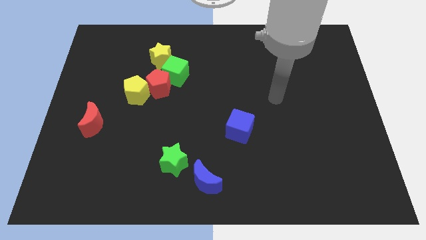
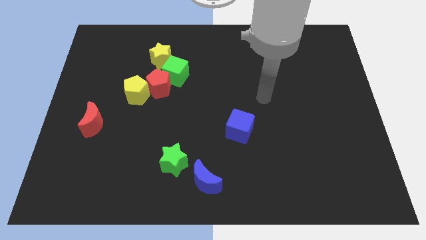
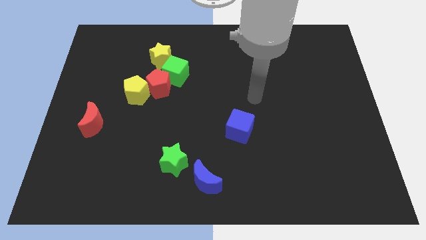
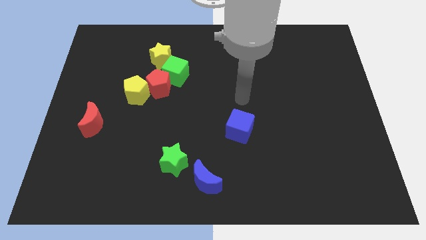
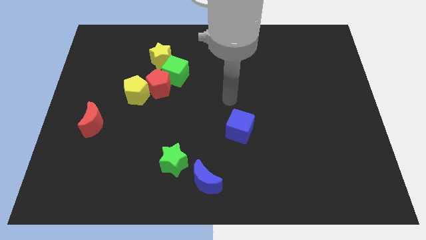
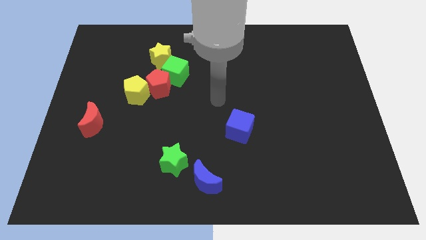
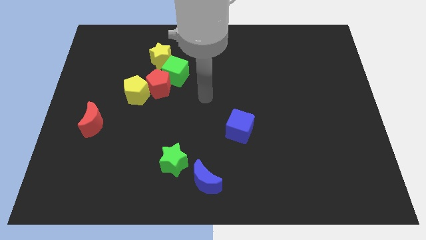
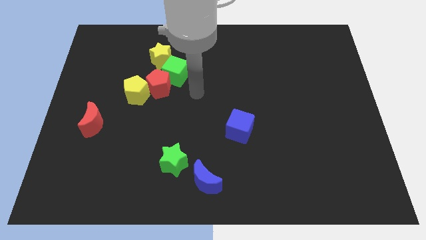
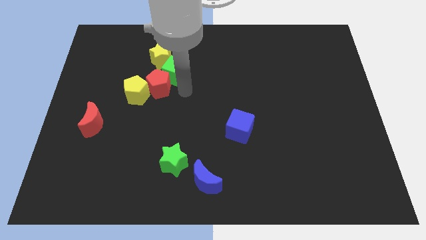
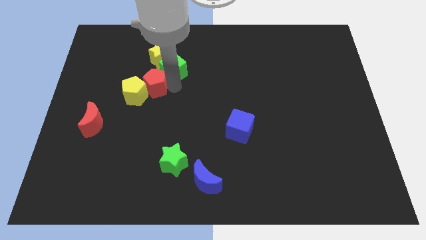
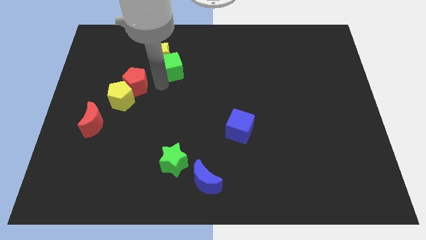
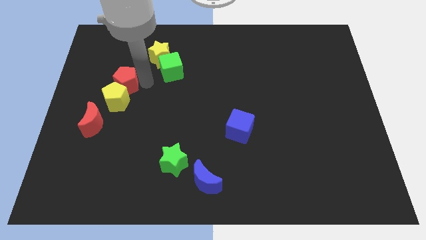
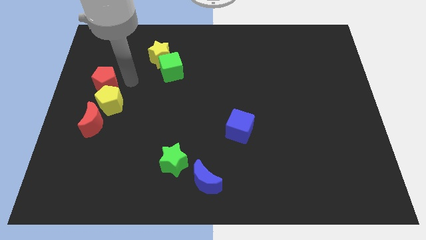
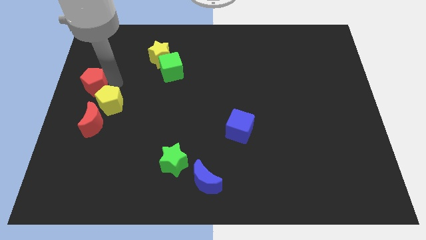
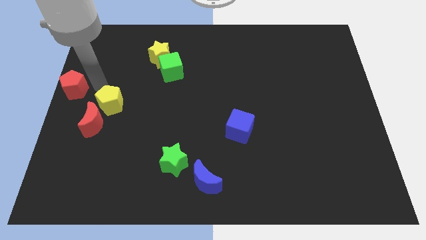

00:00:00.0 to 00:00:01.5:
pull the yellow pentagon apart from the red pentagon

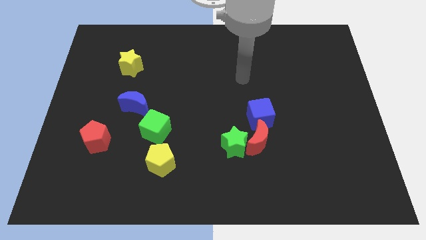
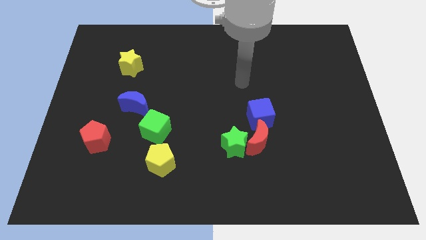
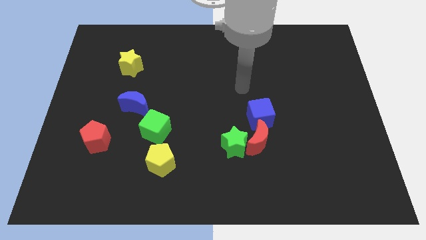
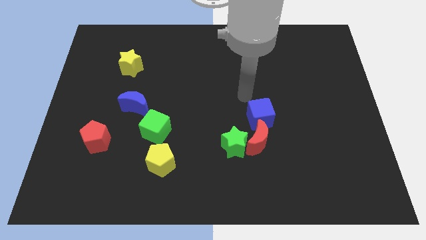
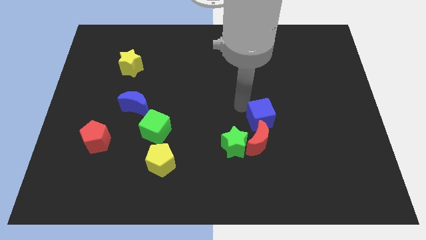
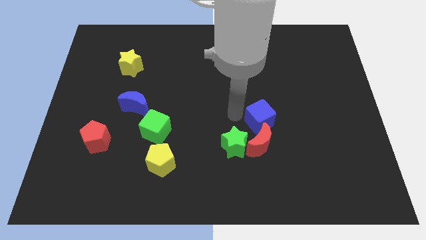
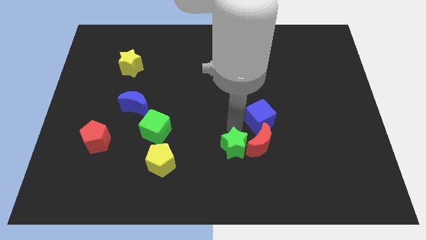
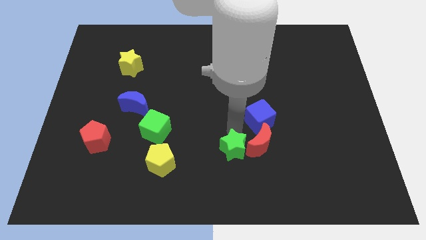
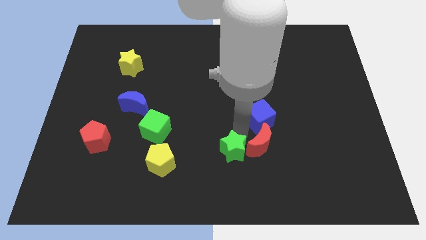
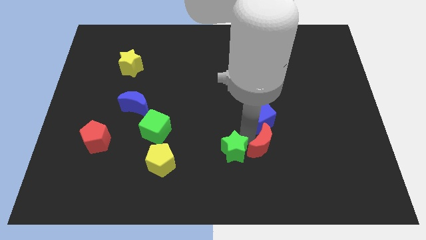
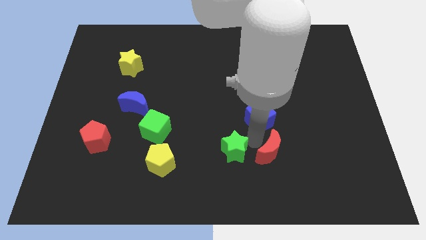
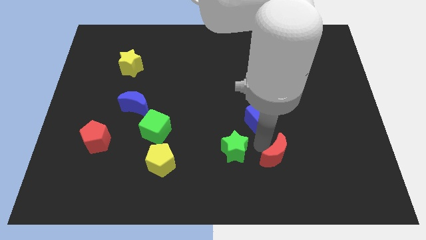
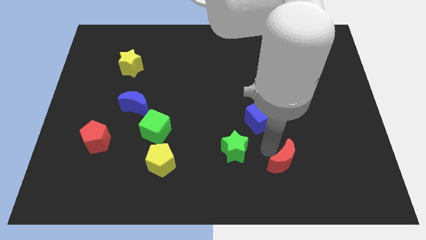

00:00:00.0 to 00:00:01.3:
separate the red moon from the green star and blue cube

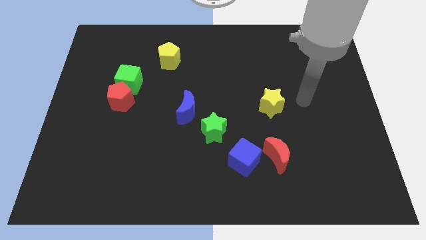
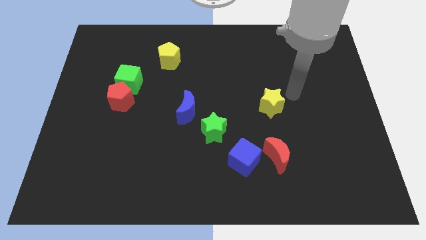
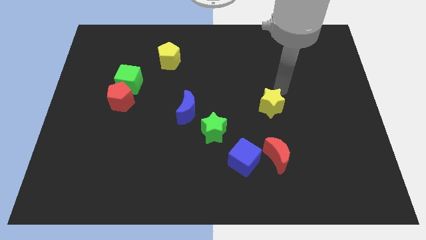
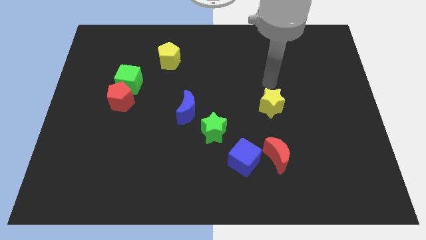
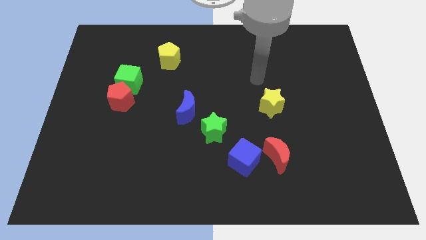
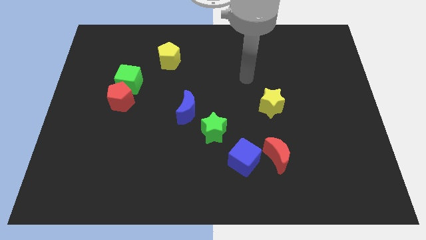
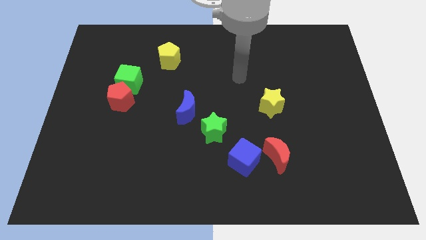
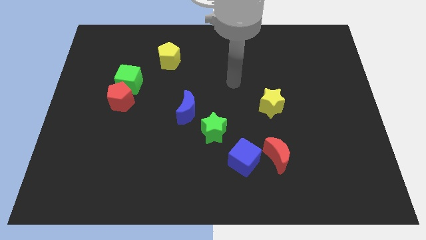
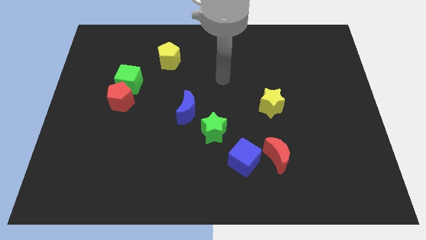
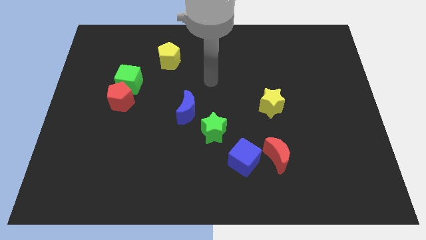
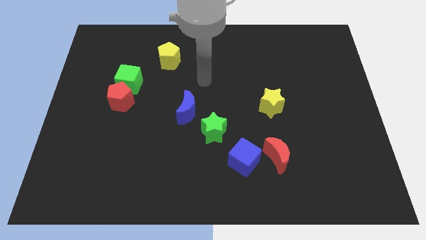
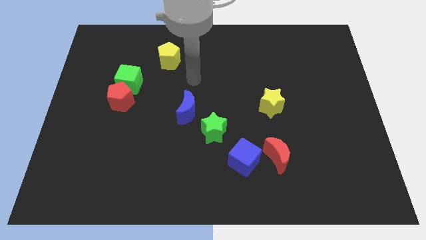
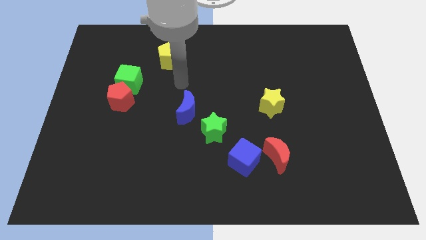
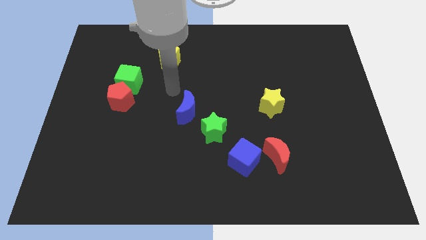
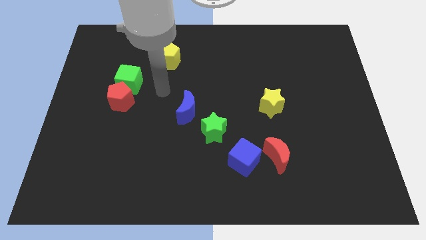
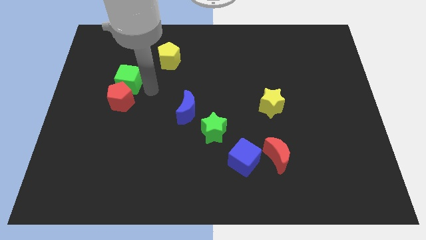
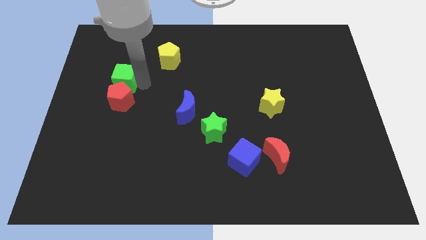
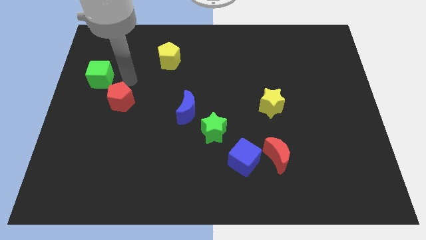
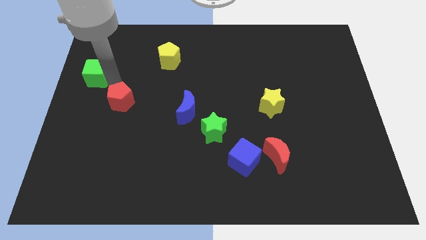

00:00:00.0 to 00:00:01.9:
pull the red pentagon apart from the green cube

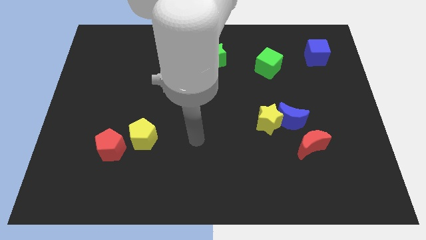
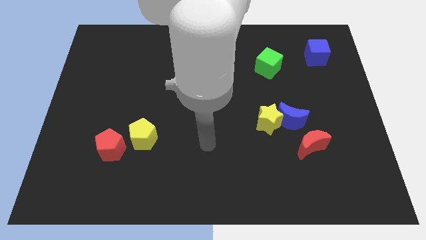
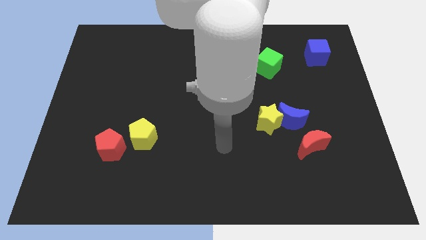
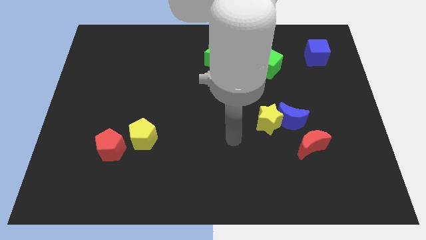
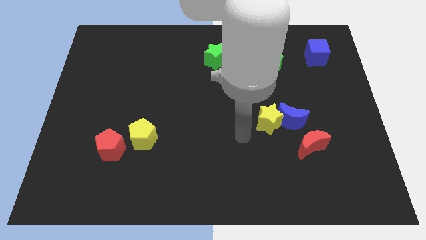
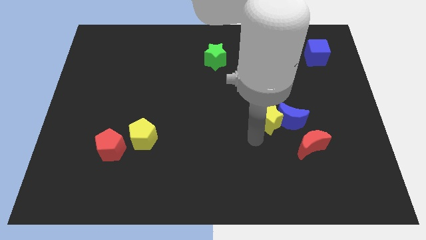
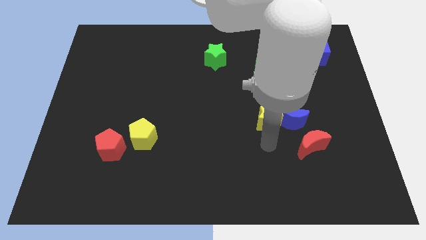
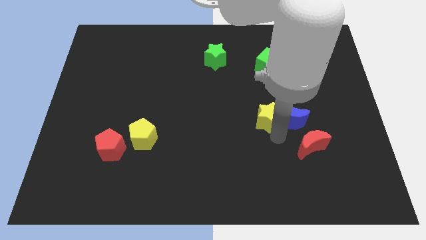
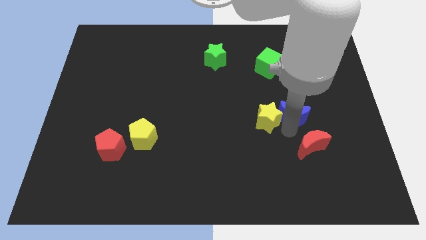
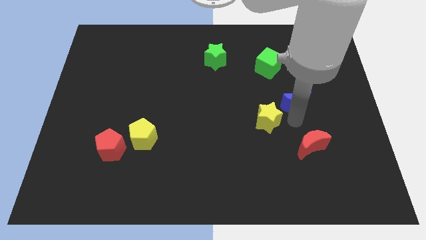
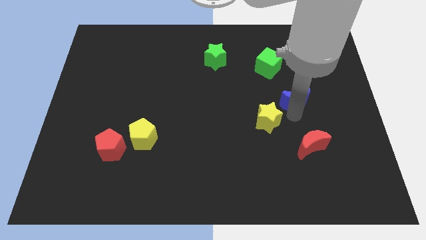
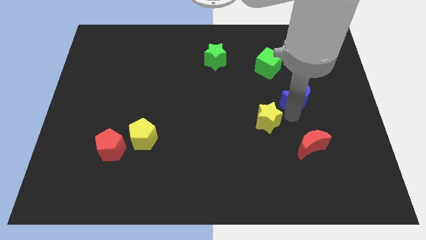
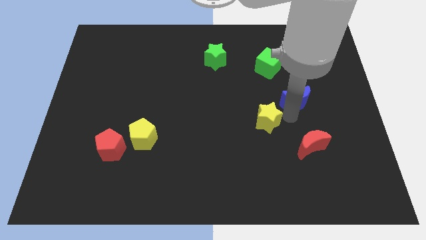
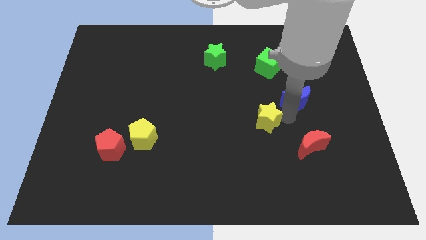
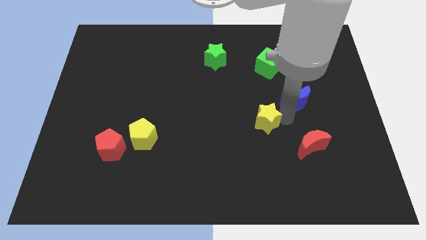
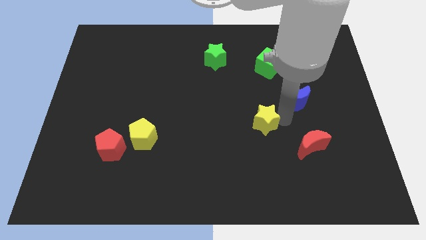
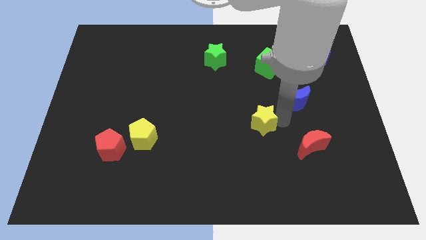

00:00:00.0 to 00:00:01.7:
move the yellow star away from the blue moon

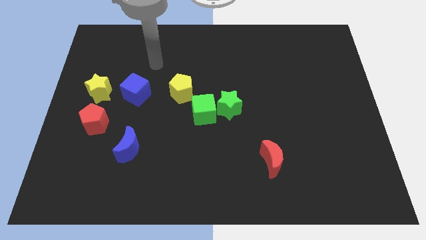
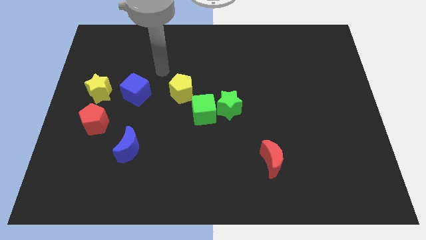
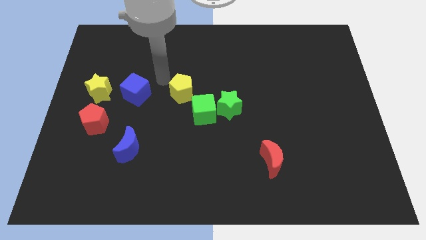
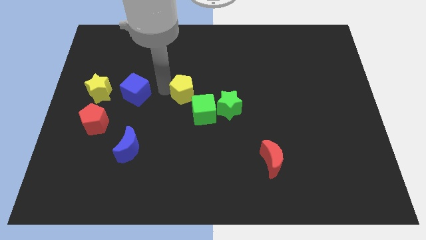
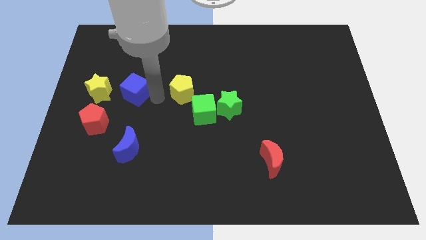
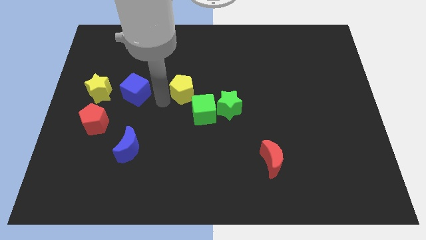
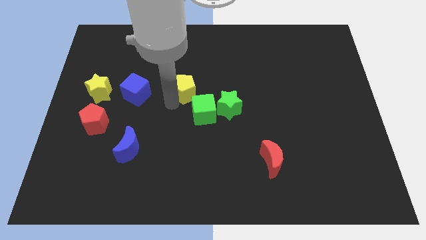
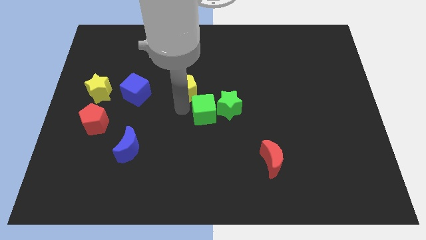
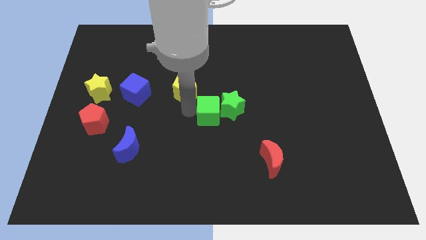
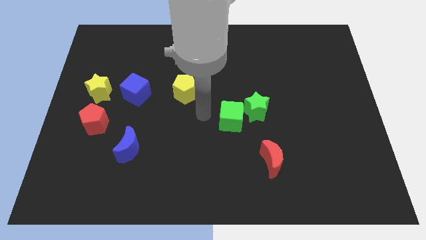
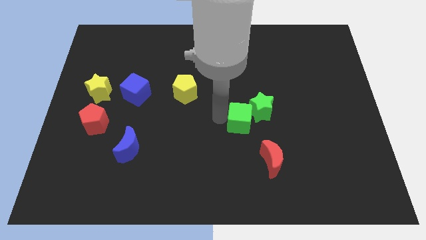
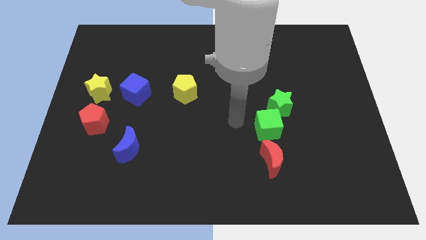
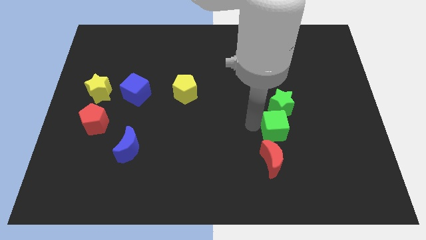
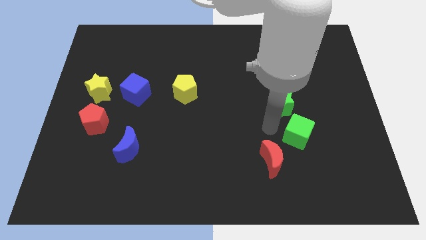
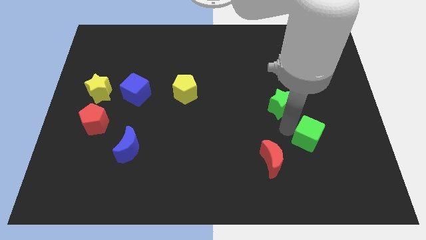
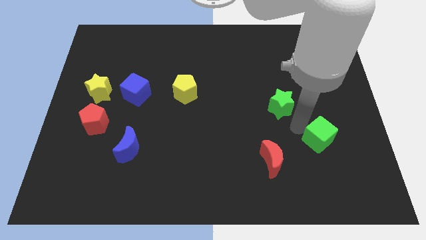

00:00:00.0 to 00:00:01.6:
move the green star away from the green cube

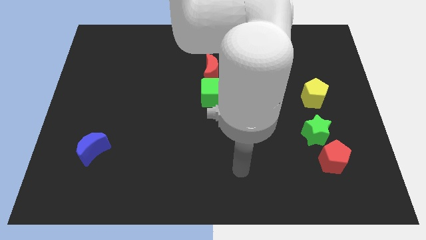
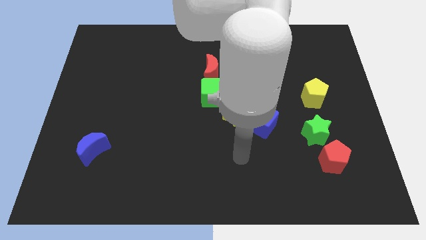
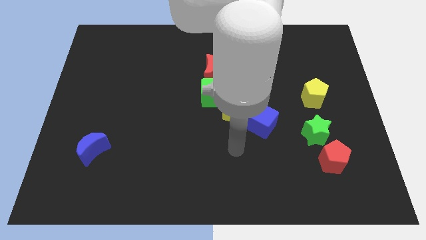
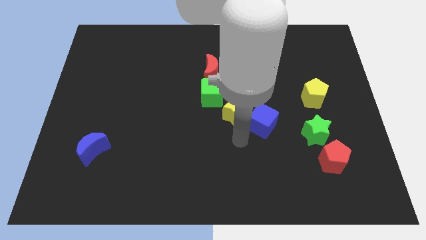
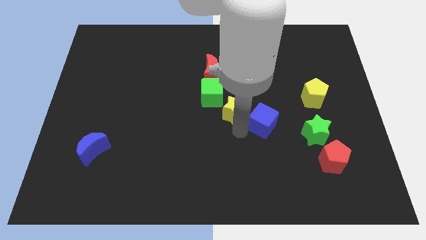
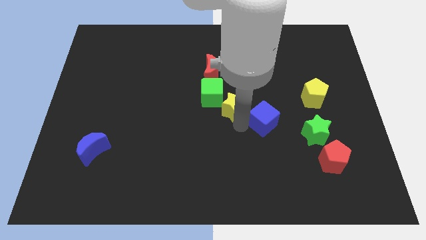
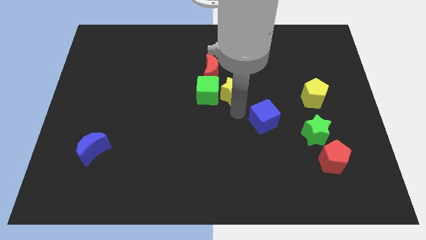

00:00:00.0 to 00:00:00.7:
move the blue cube away from the yellow star

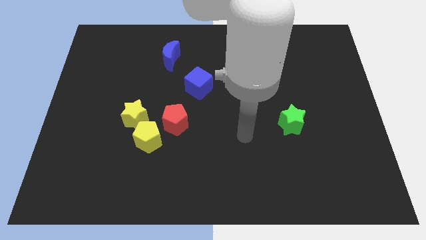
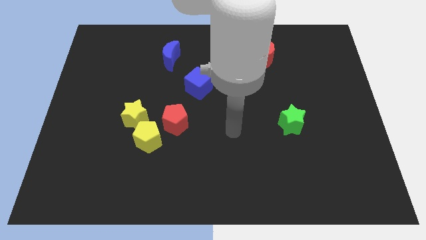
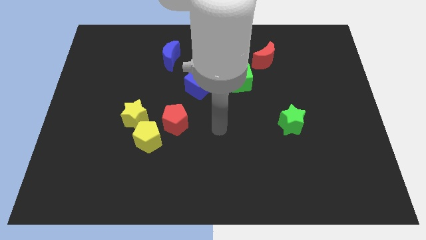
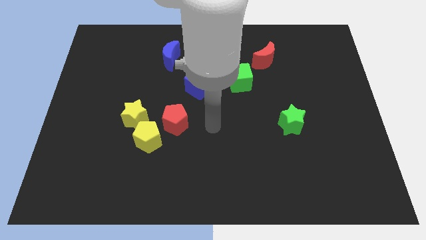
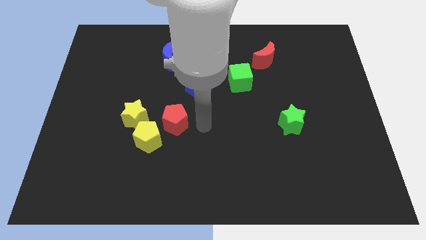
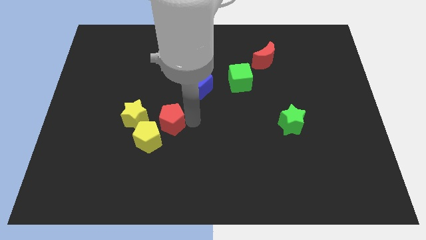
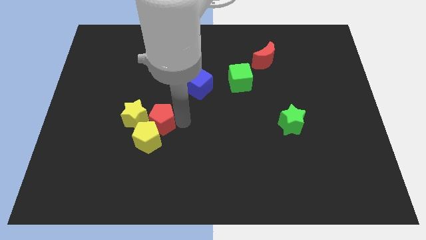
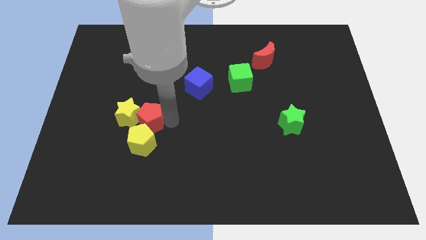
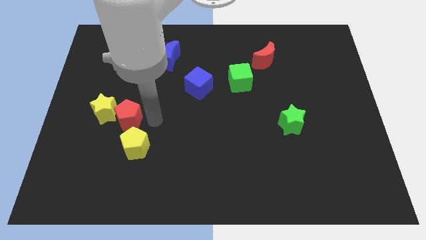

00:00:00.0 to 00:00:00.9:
separate the yellow pentagon from the yellow star and red pentagon
